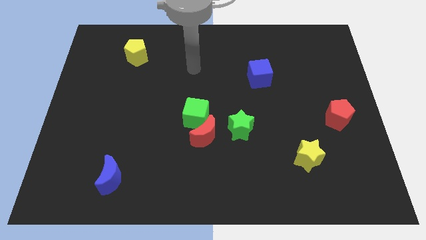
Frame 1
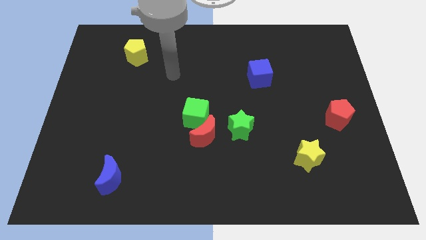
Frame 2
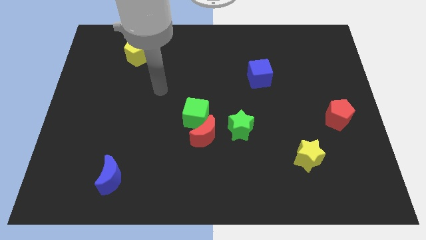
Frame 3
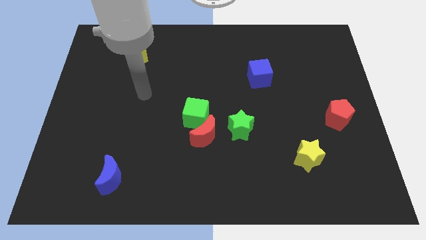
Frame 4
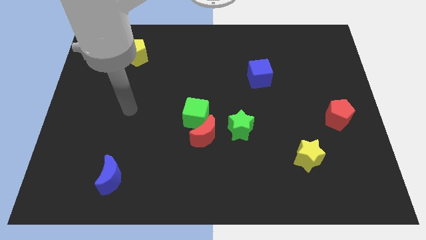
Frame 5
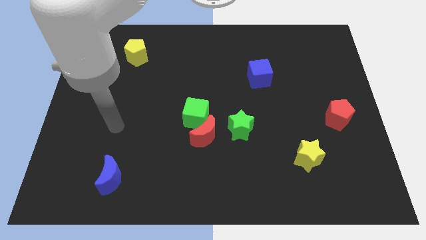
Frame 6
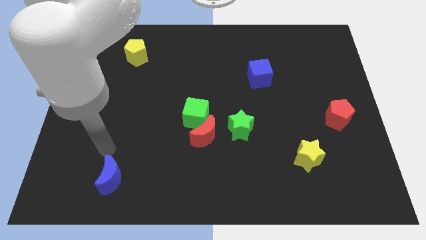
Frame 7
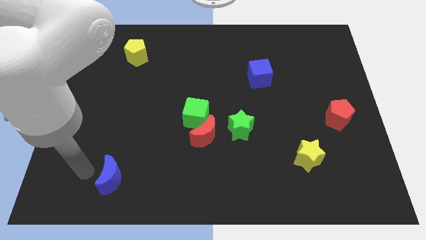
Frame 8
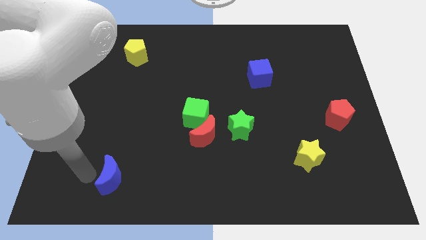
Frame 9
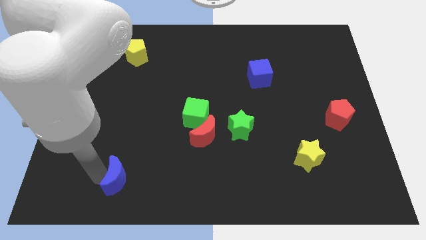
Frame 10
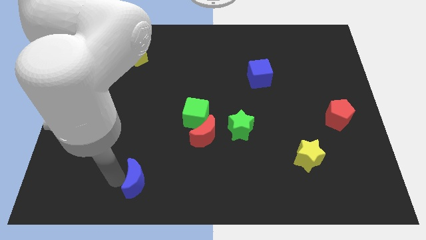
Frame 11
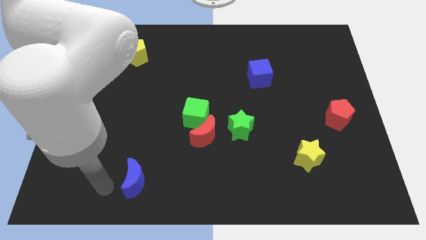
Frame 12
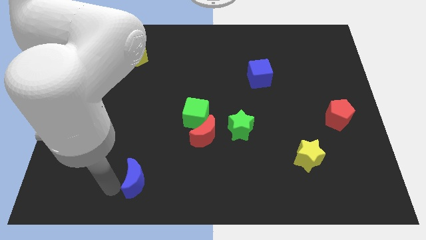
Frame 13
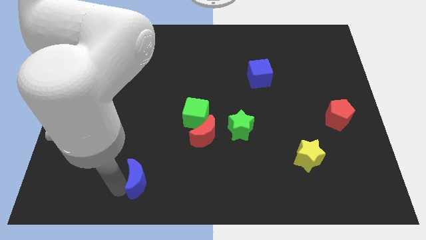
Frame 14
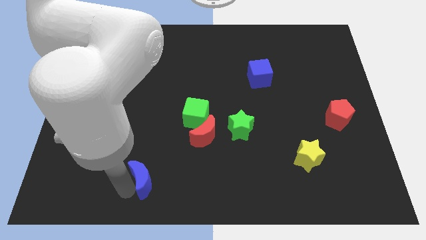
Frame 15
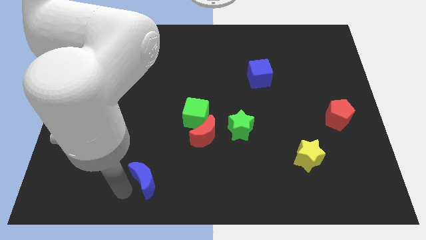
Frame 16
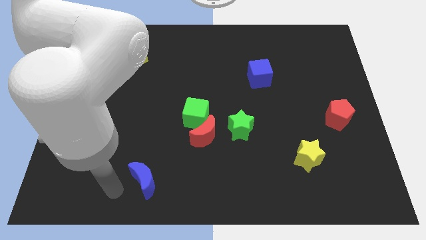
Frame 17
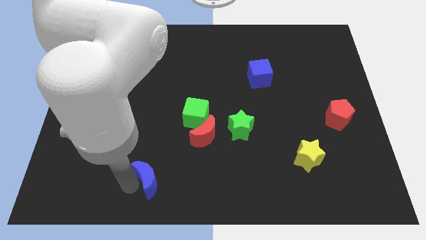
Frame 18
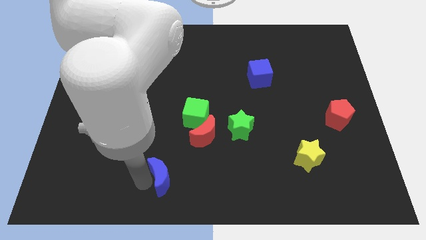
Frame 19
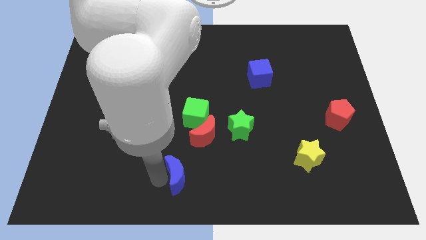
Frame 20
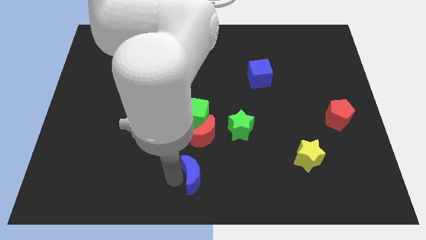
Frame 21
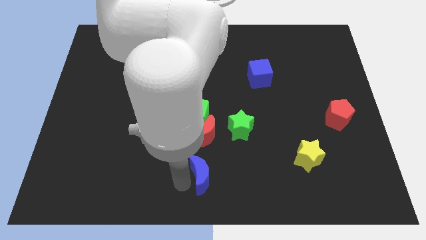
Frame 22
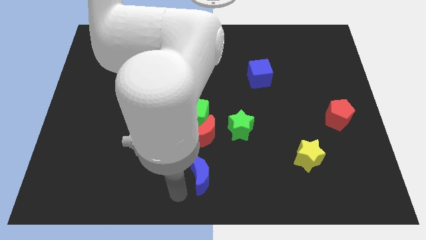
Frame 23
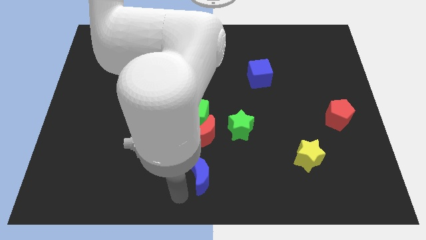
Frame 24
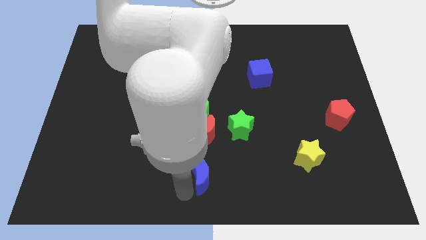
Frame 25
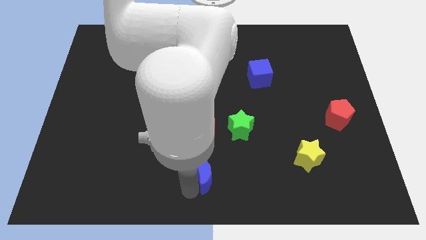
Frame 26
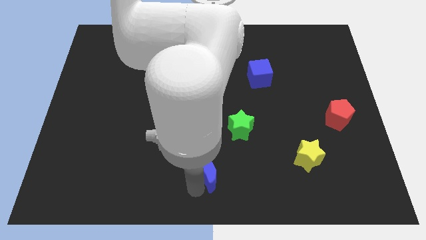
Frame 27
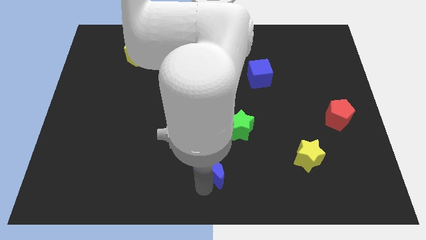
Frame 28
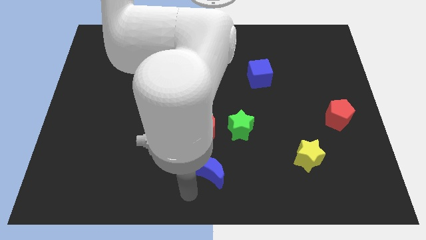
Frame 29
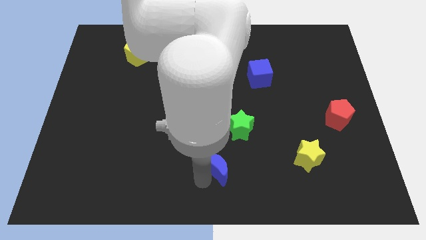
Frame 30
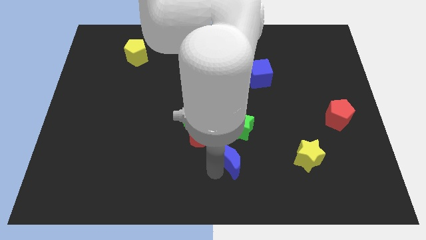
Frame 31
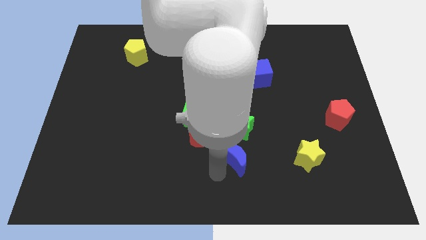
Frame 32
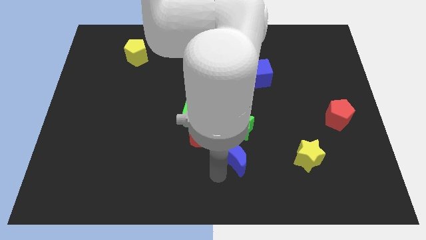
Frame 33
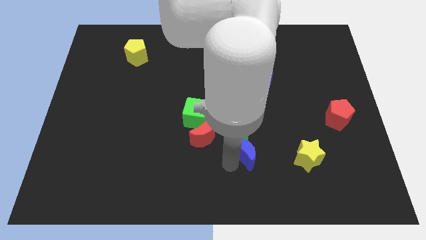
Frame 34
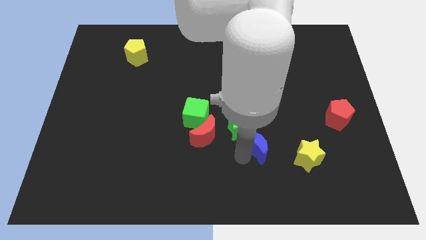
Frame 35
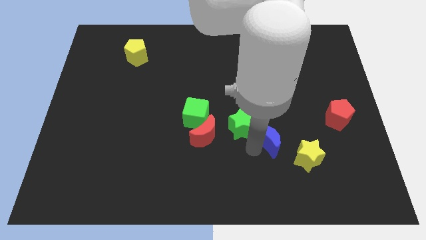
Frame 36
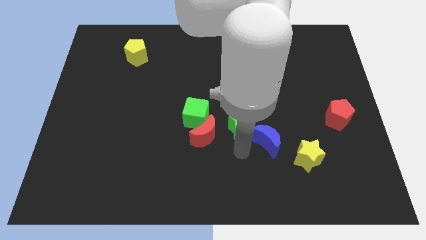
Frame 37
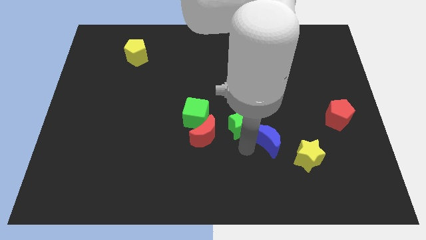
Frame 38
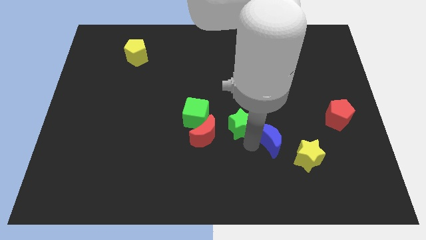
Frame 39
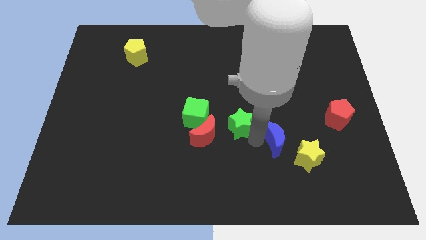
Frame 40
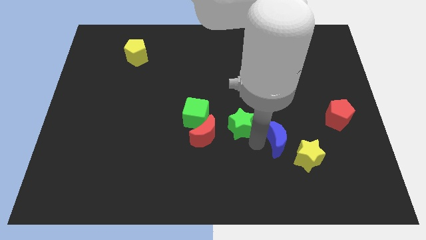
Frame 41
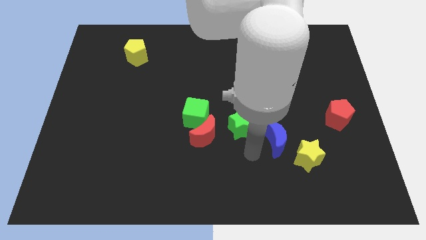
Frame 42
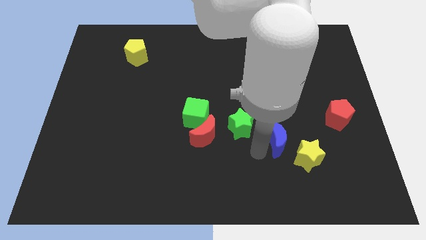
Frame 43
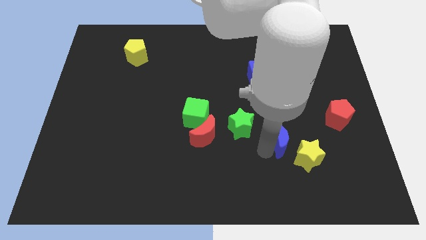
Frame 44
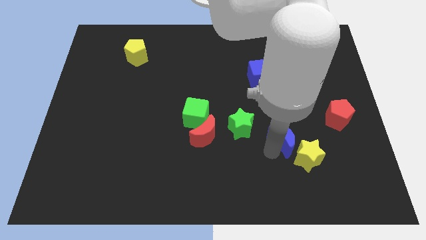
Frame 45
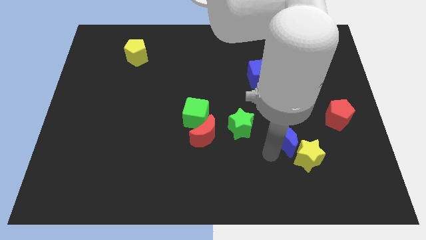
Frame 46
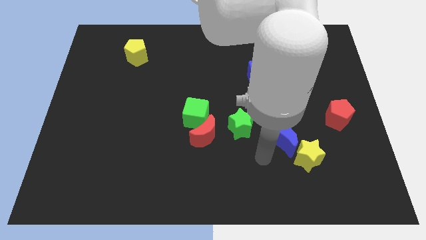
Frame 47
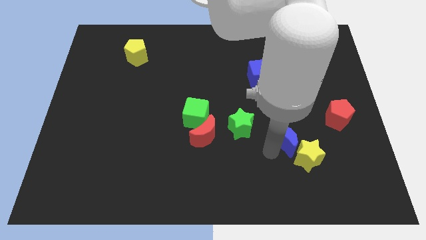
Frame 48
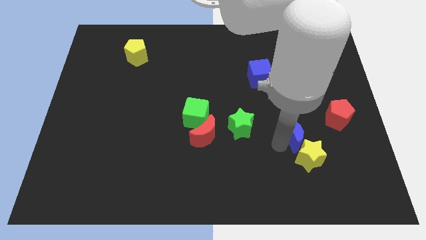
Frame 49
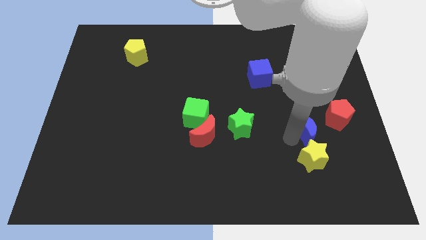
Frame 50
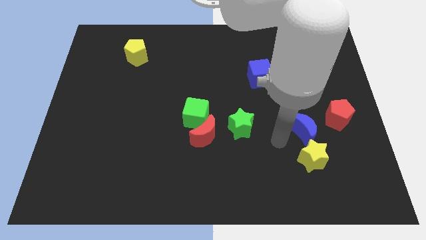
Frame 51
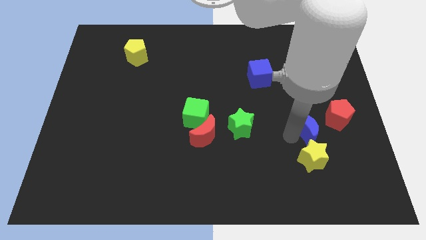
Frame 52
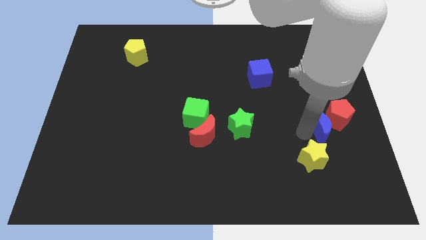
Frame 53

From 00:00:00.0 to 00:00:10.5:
put the blue moon close to the red pentagon

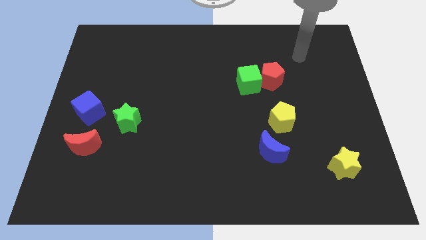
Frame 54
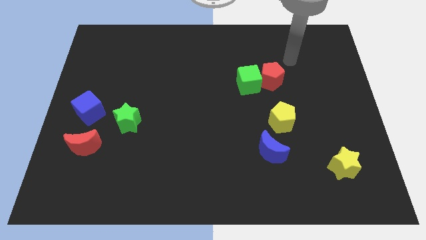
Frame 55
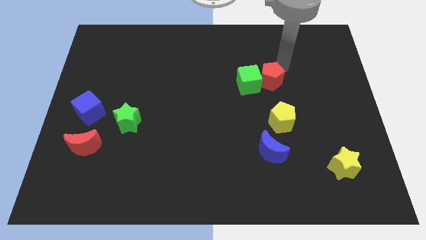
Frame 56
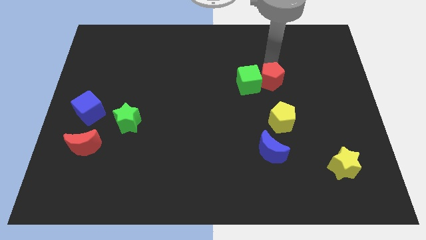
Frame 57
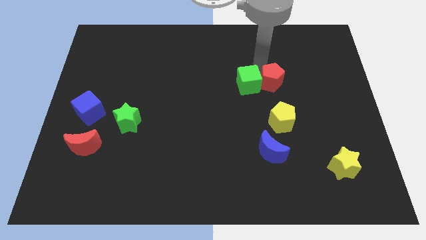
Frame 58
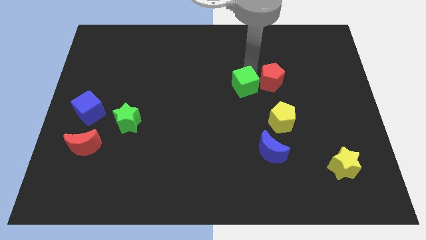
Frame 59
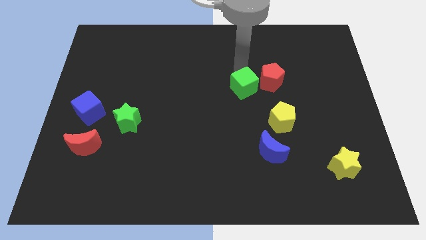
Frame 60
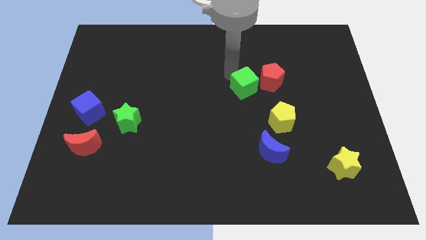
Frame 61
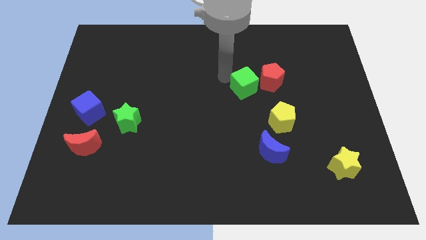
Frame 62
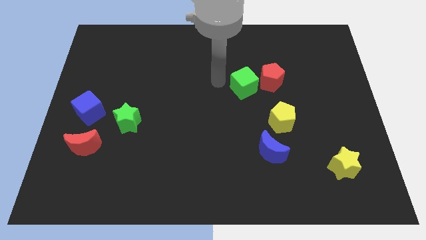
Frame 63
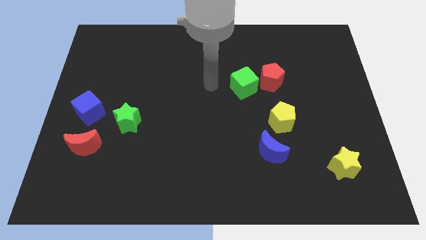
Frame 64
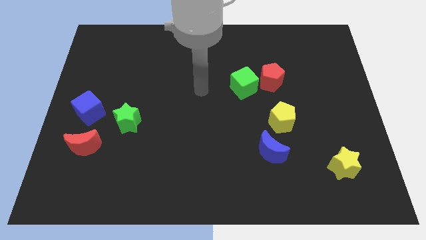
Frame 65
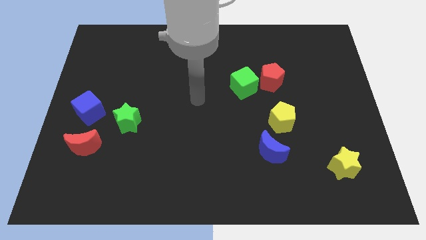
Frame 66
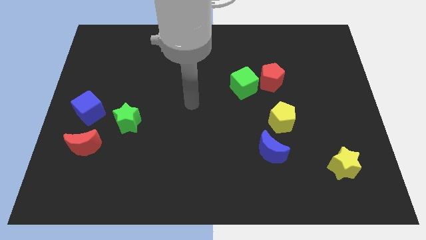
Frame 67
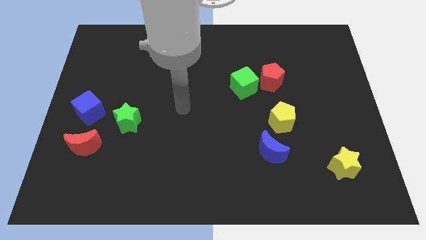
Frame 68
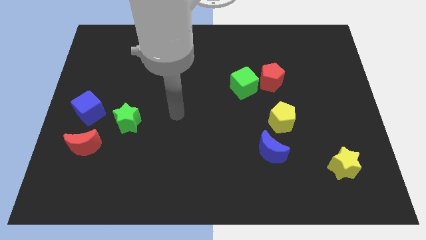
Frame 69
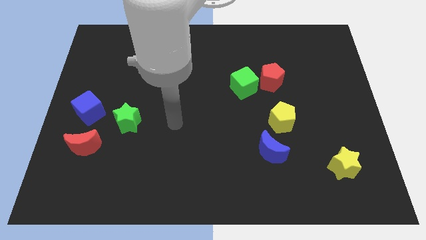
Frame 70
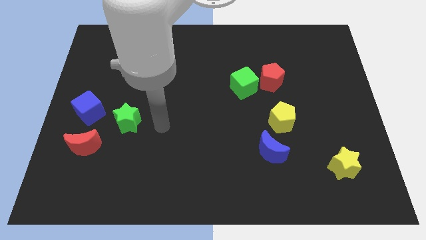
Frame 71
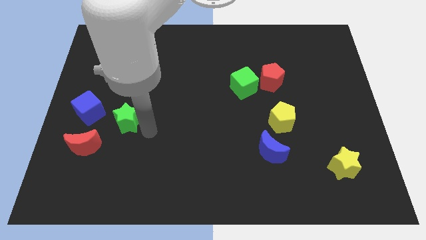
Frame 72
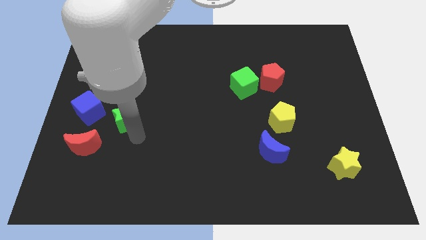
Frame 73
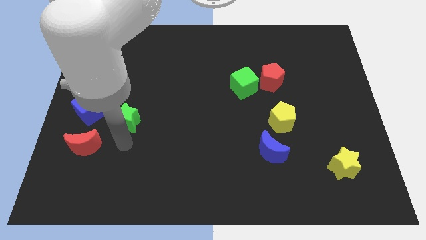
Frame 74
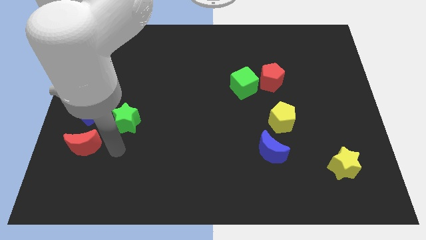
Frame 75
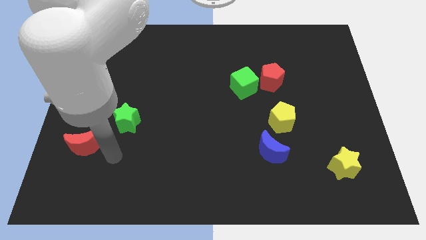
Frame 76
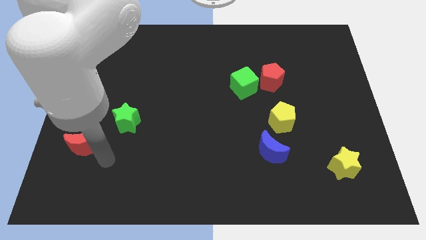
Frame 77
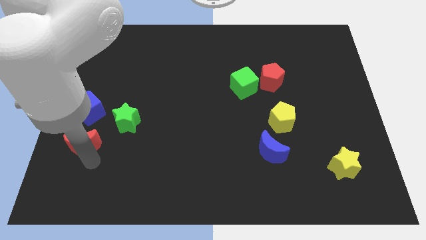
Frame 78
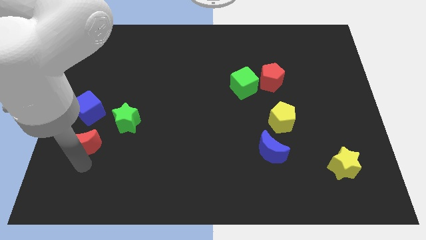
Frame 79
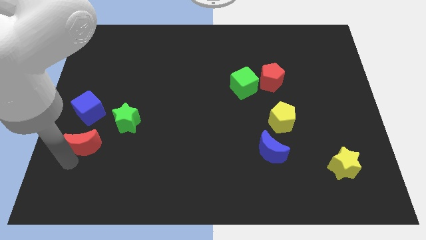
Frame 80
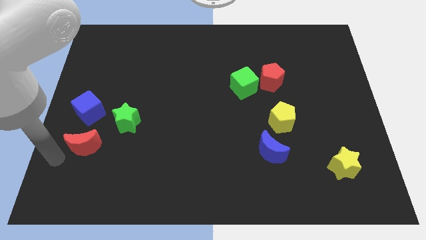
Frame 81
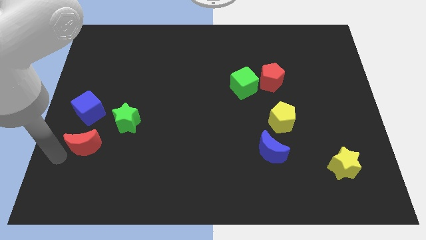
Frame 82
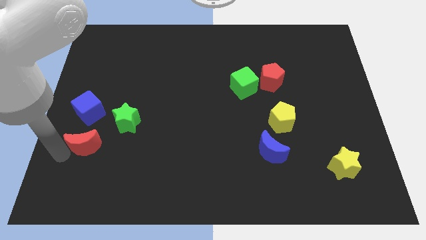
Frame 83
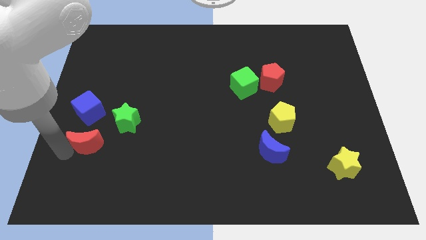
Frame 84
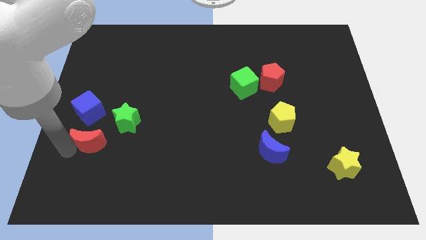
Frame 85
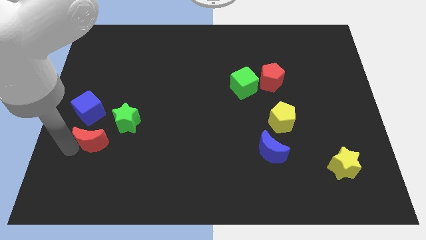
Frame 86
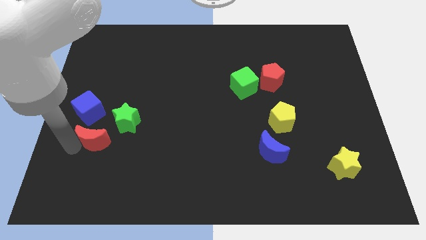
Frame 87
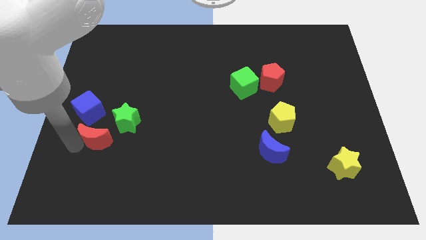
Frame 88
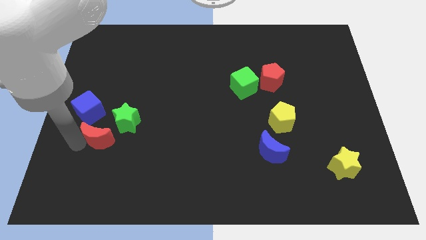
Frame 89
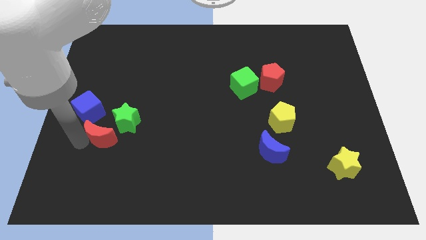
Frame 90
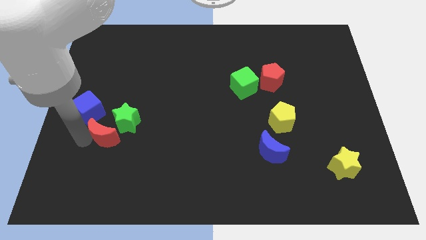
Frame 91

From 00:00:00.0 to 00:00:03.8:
push the red moon to the green star
